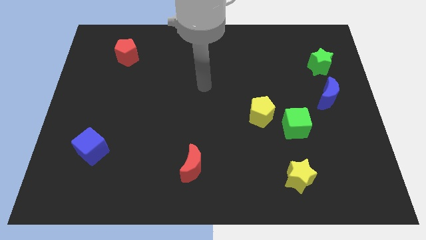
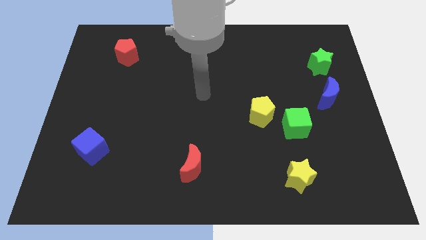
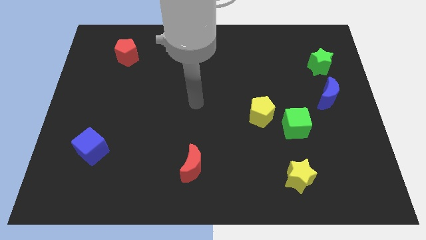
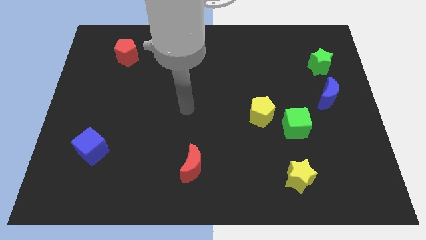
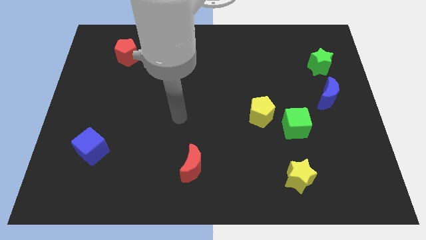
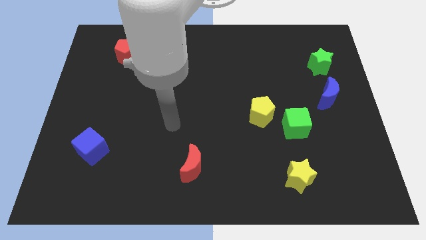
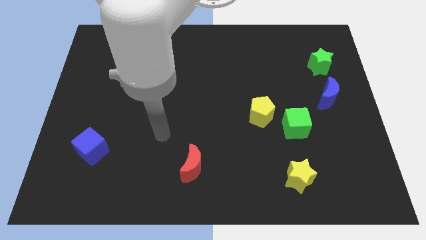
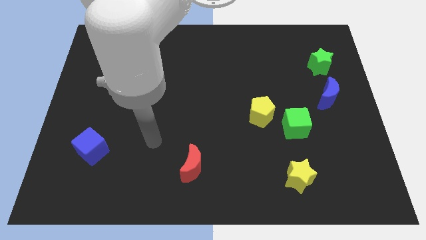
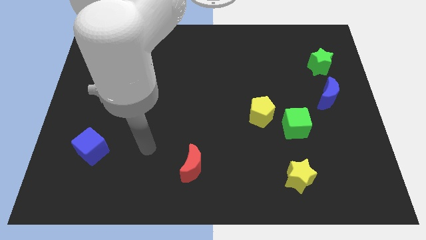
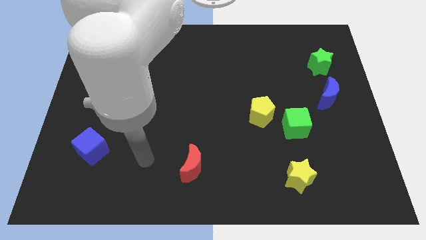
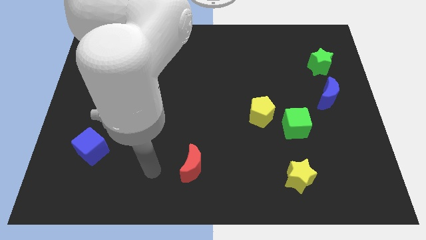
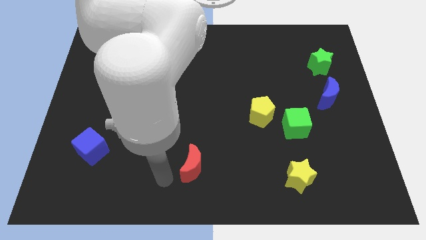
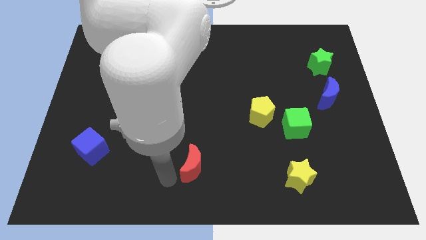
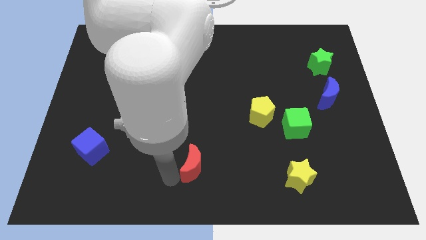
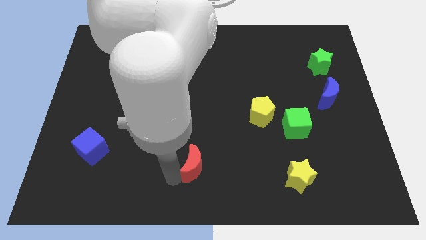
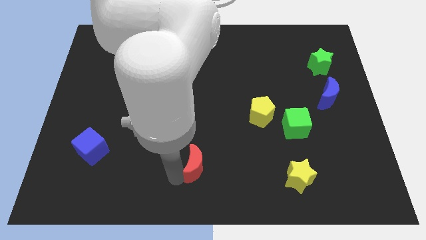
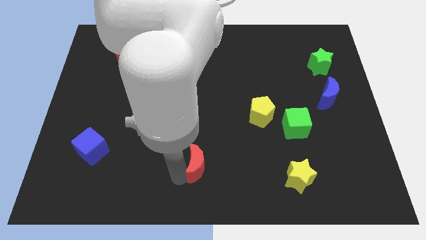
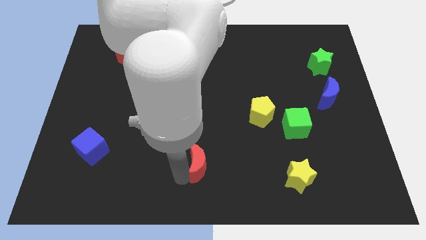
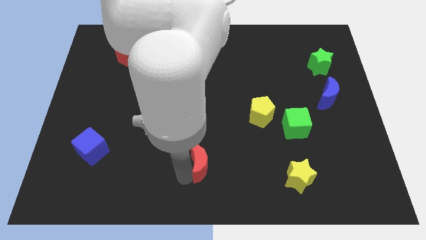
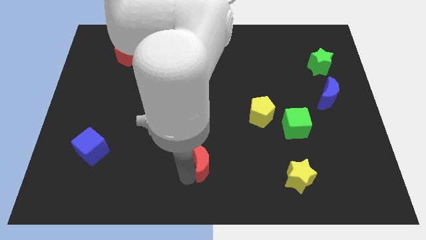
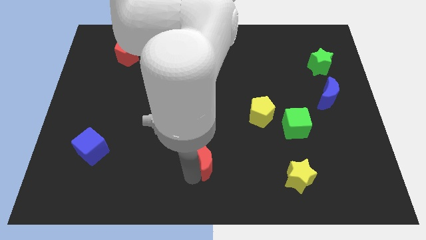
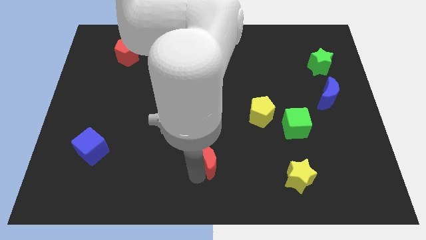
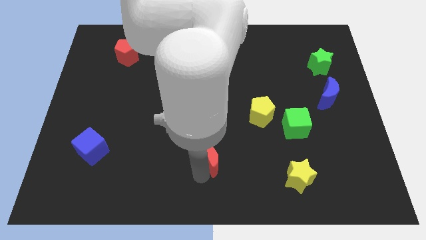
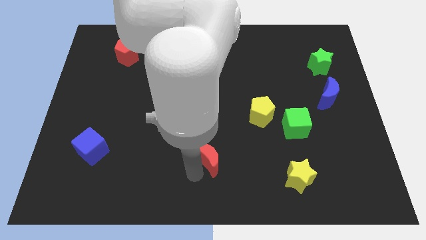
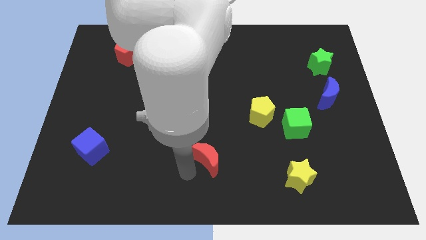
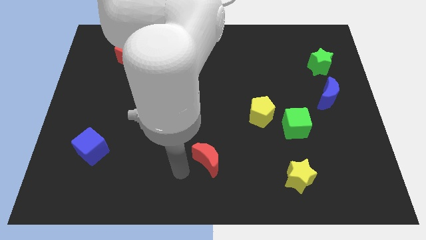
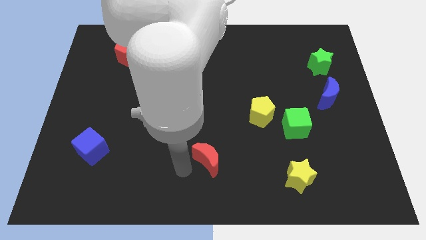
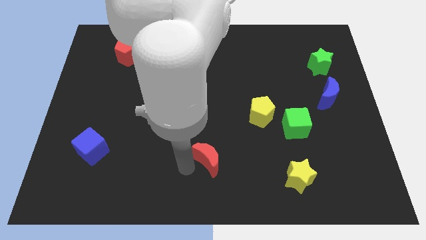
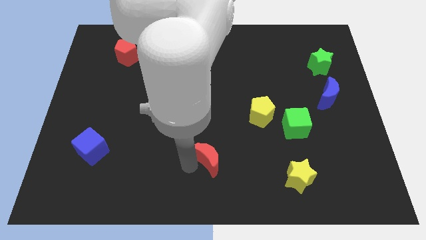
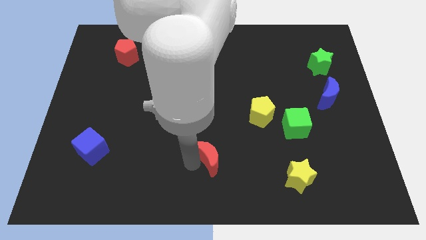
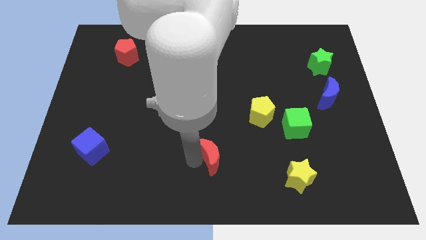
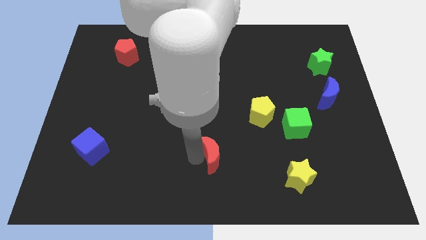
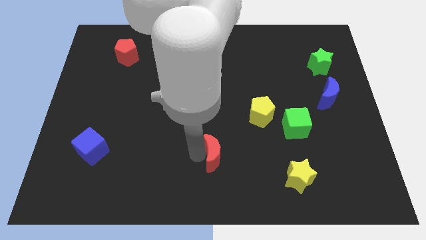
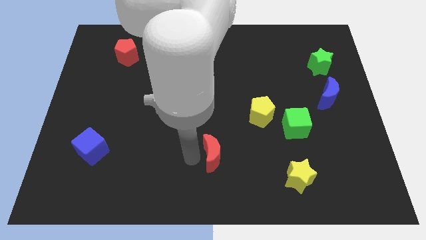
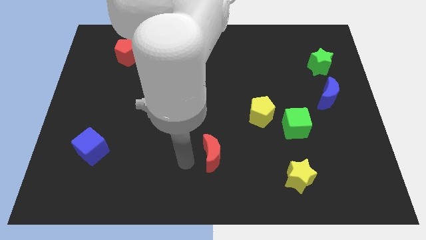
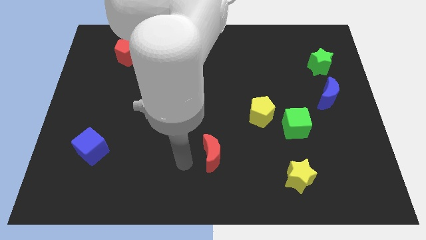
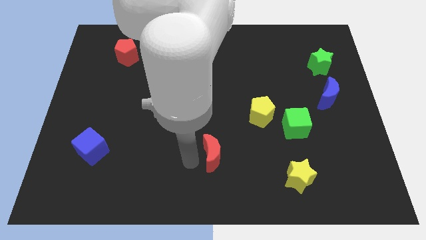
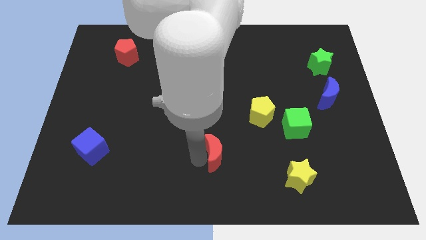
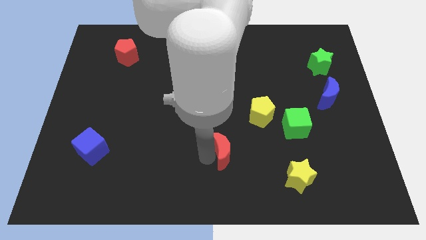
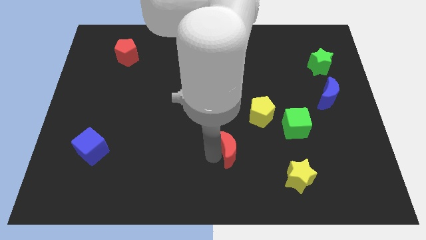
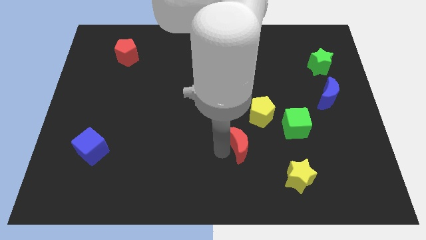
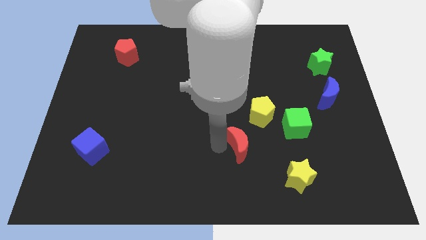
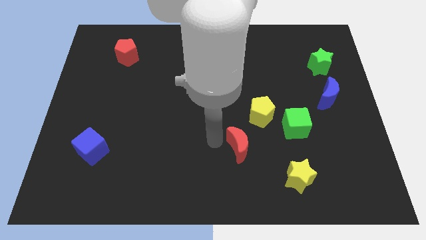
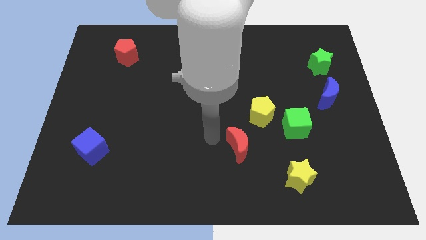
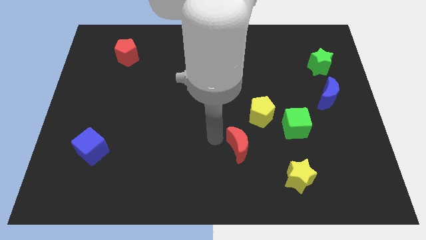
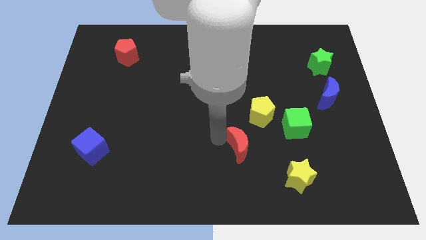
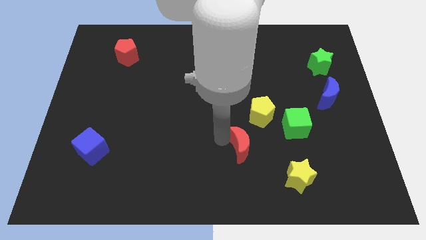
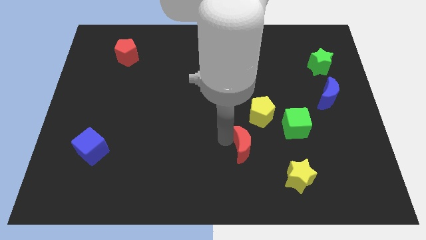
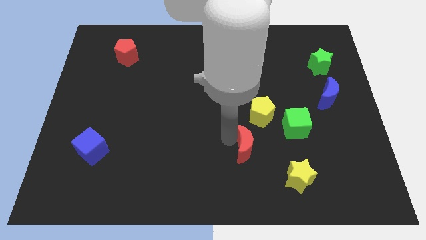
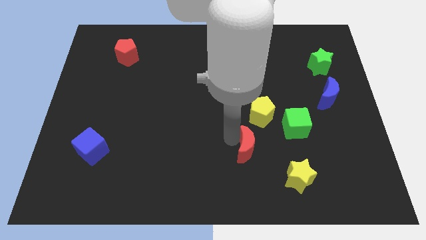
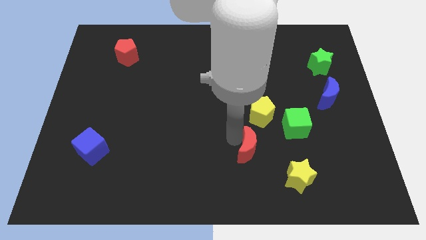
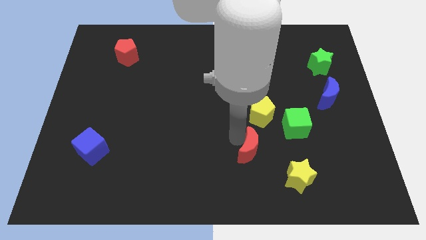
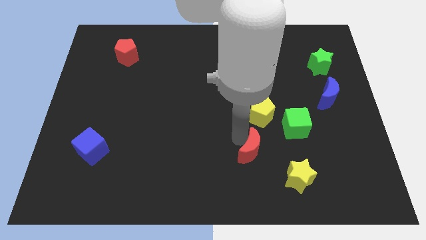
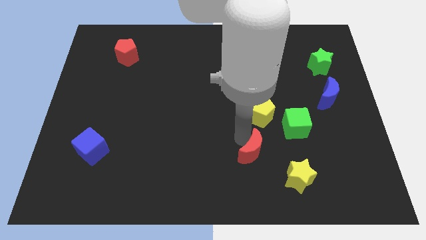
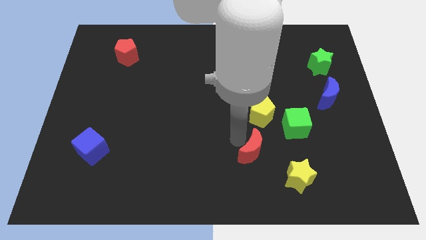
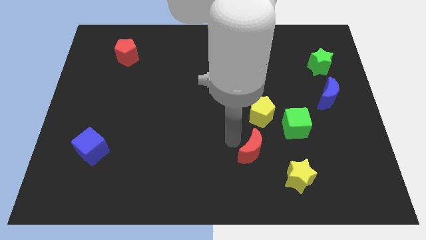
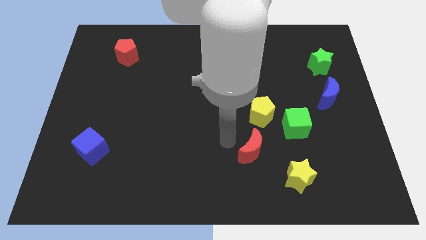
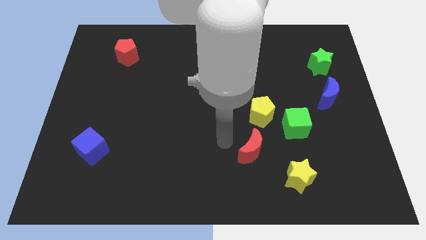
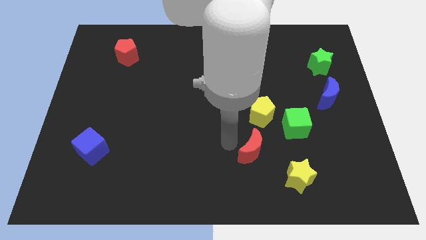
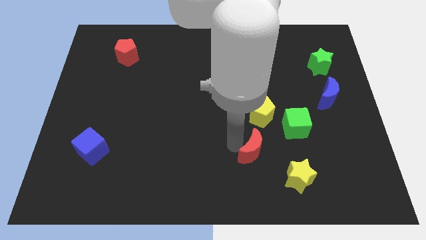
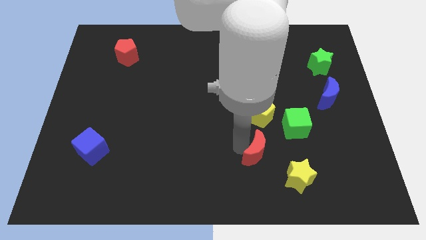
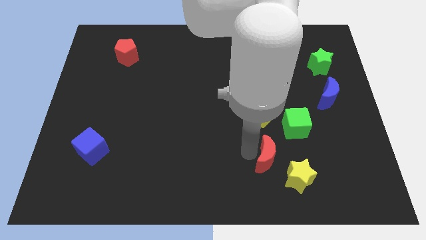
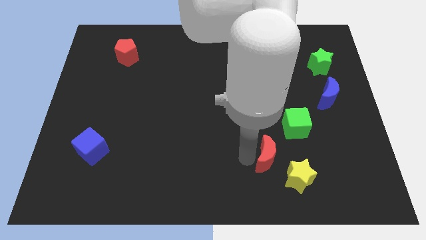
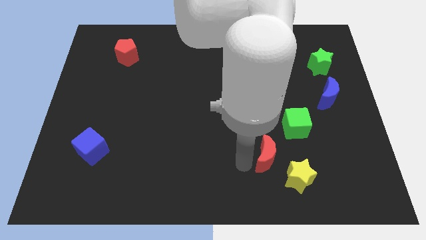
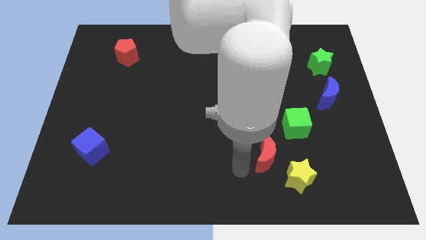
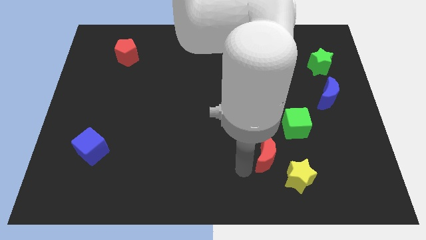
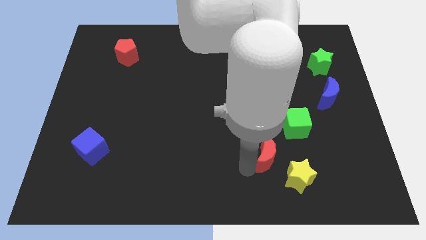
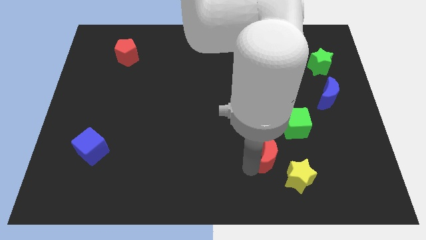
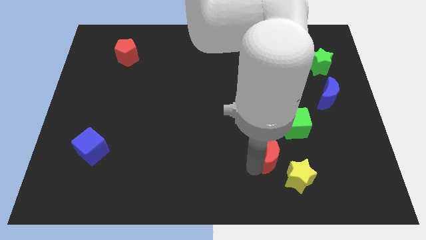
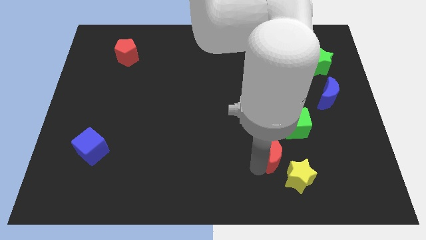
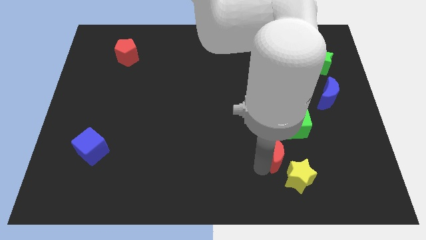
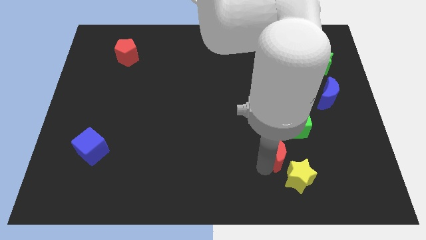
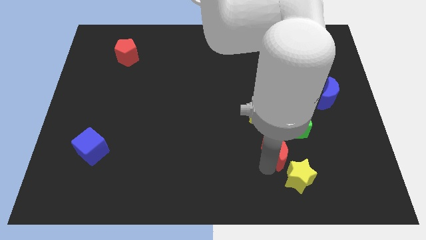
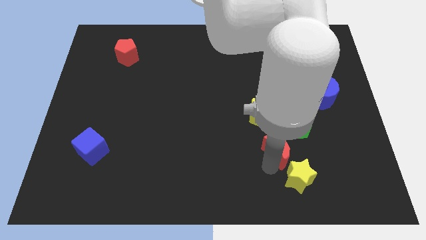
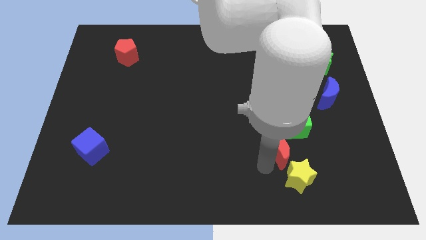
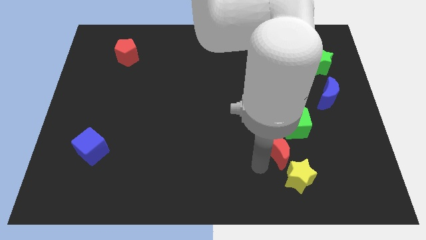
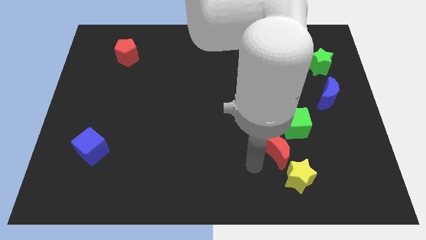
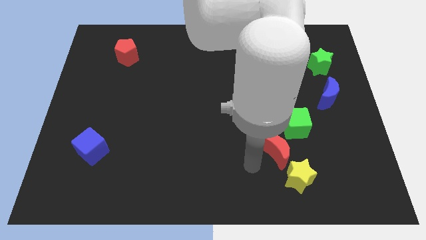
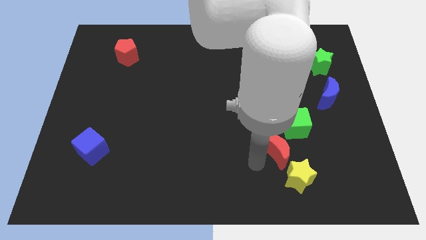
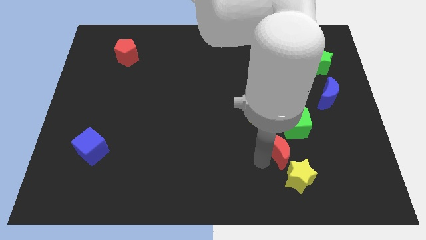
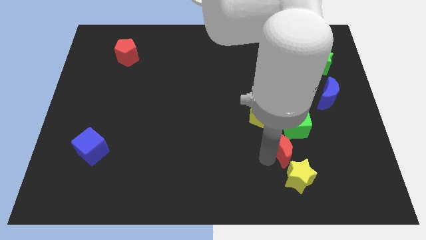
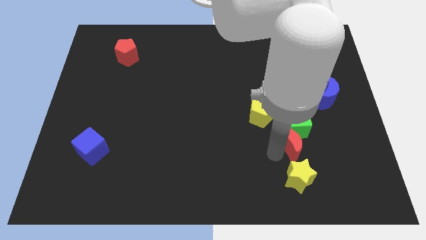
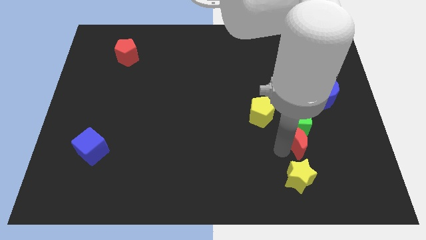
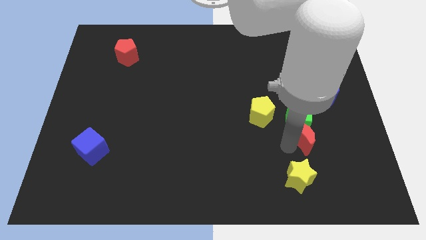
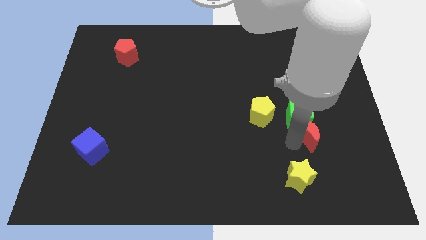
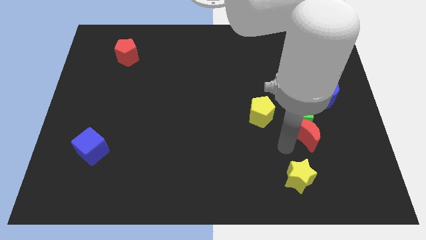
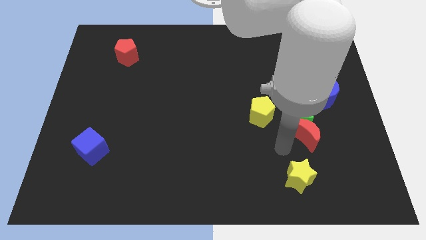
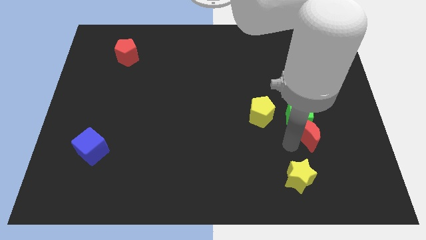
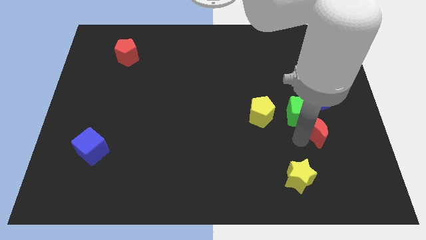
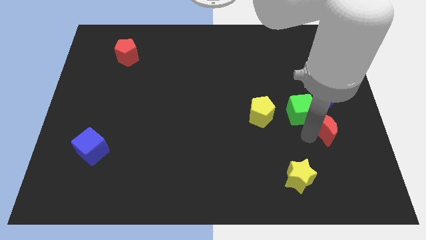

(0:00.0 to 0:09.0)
slide the red moon to the right side of the green cube
